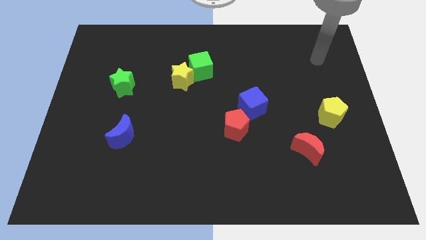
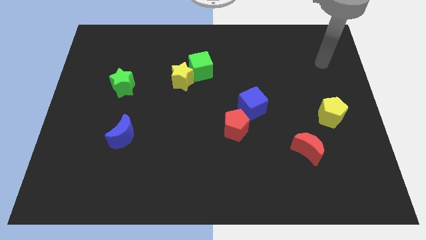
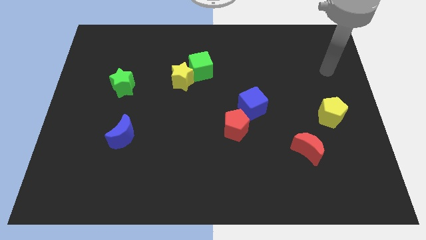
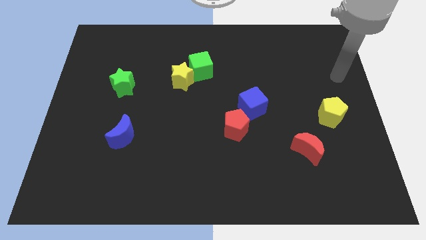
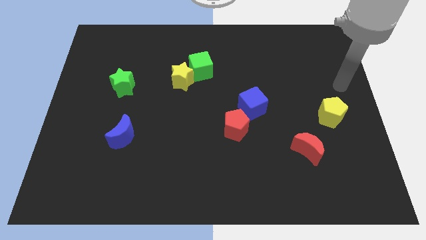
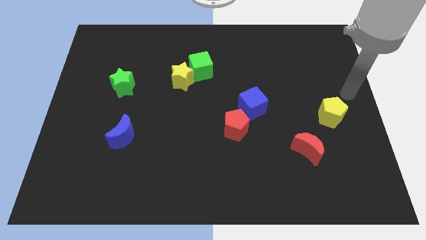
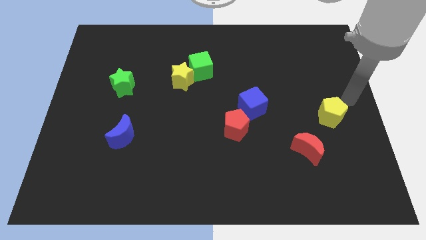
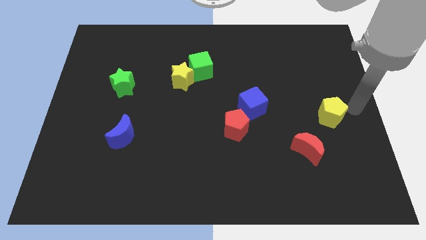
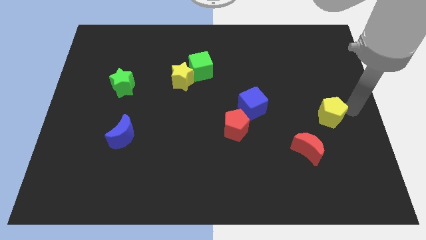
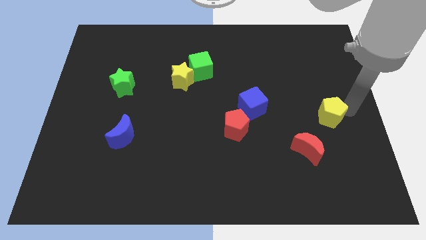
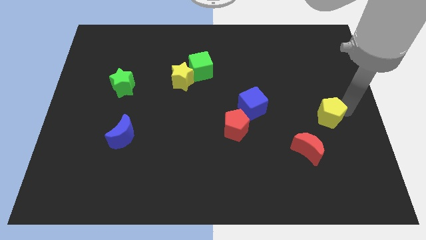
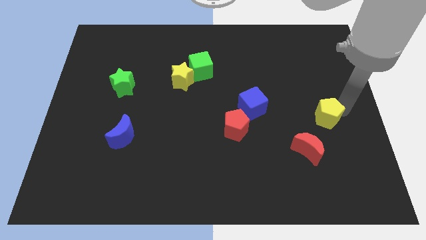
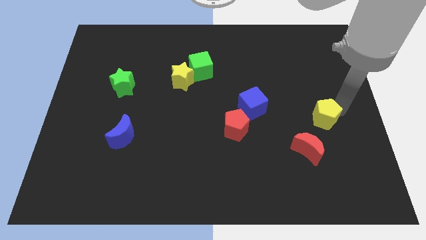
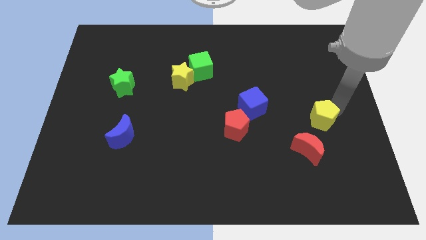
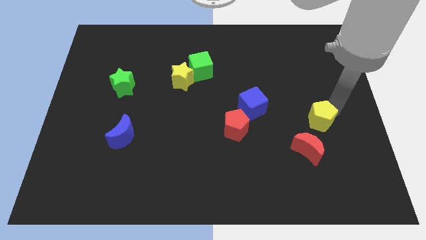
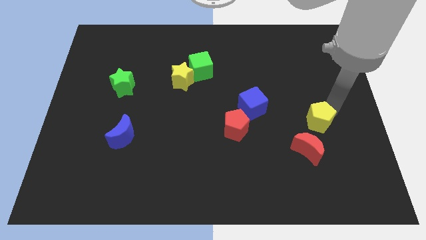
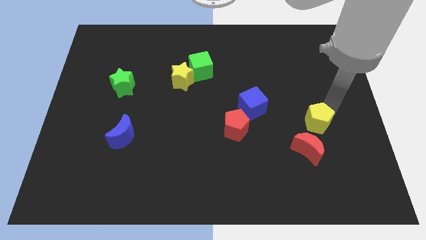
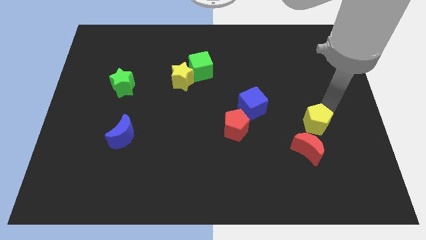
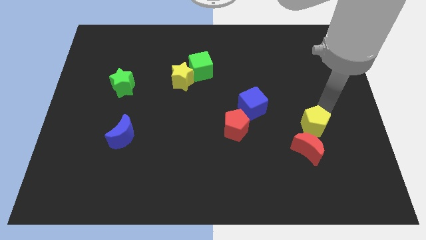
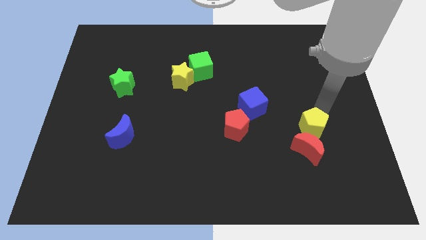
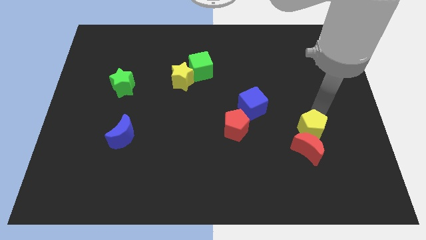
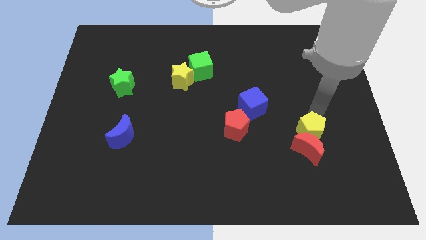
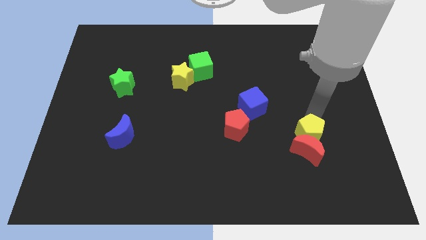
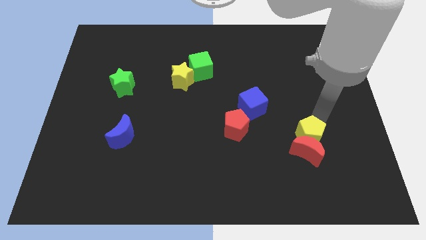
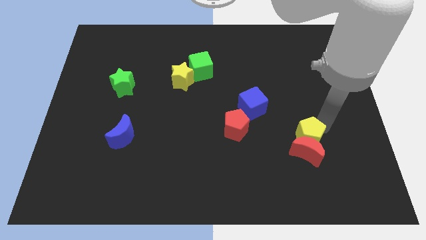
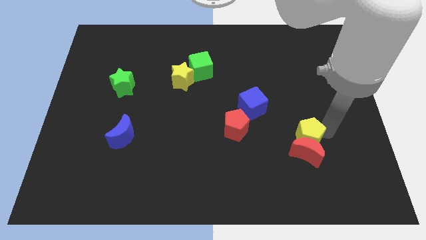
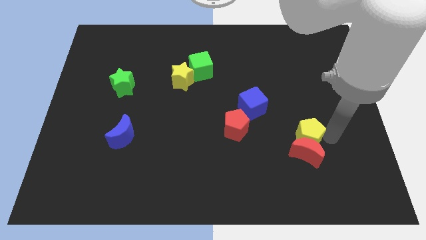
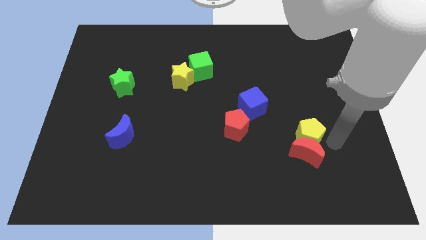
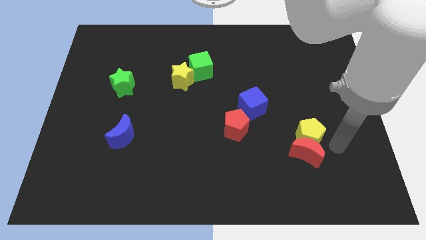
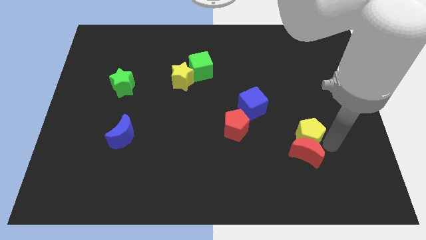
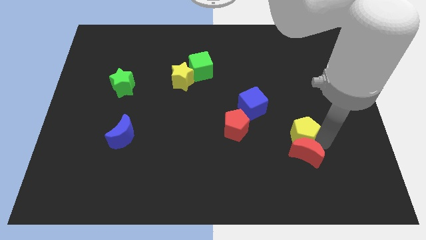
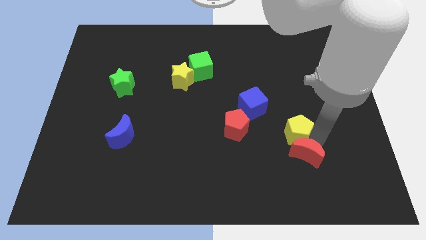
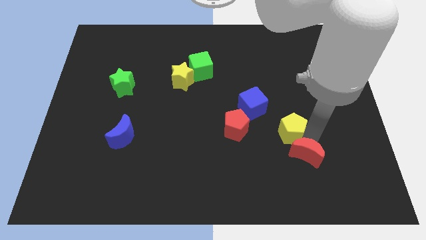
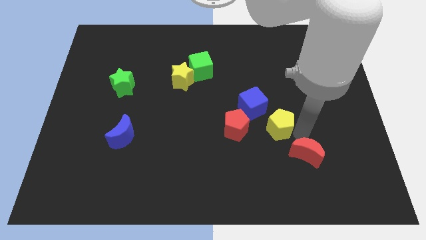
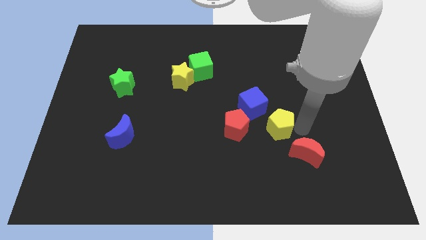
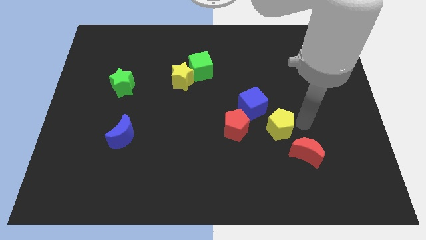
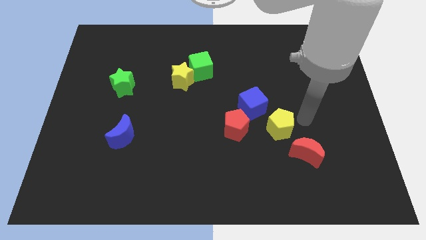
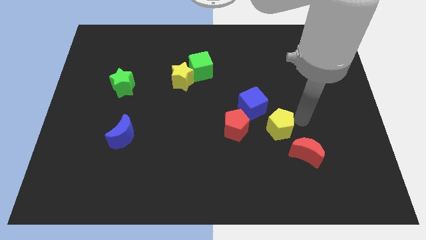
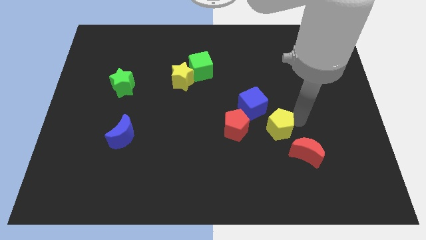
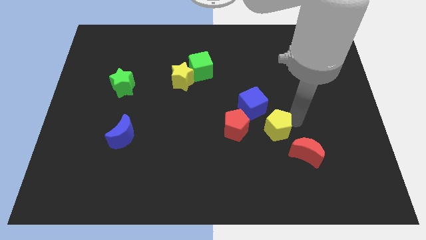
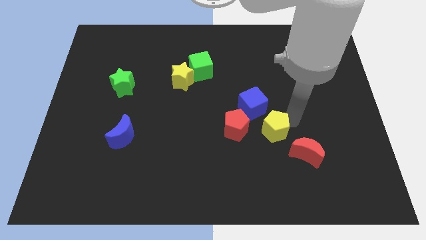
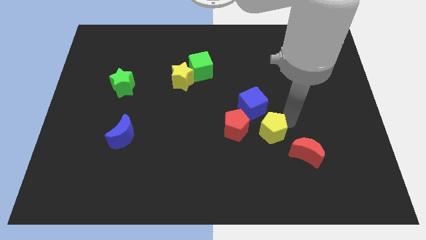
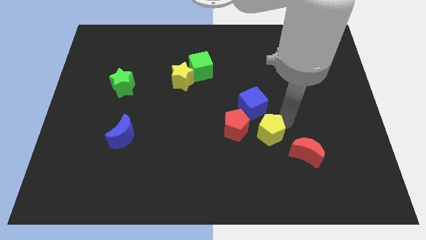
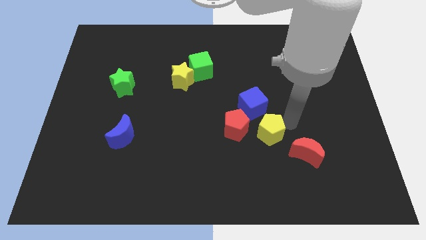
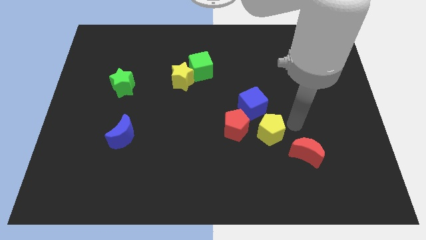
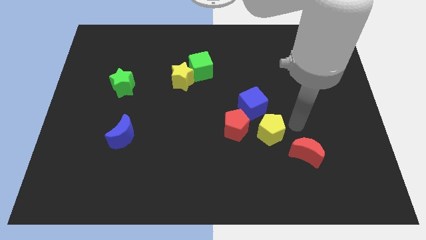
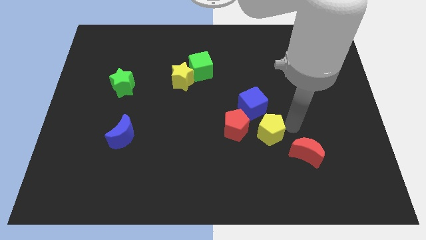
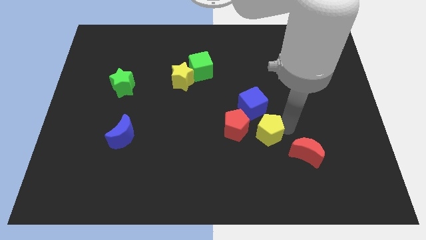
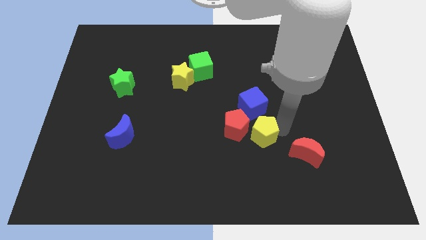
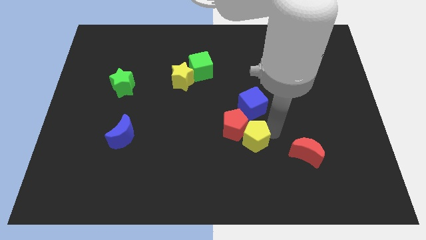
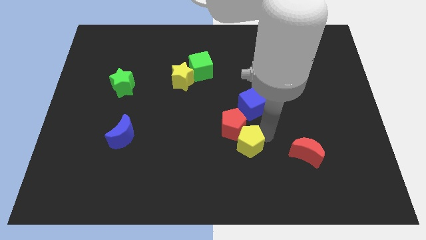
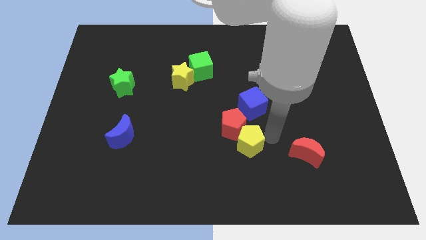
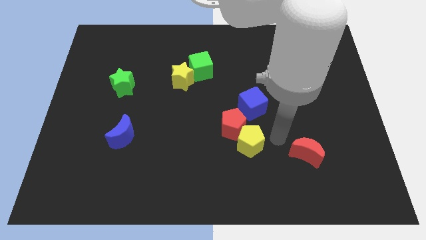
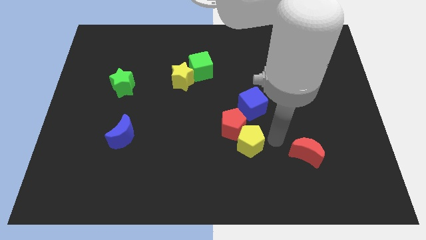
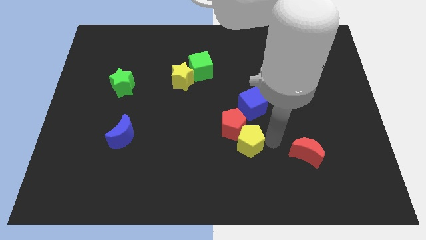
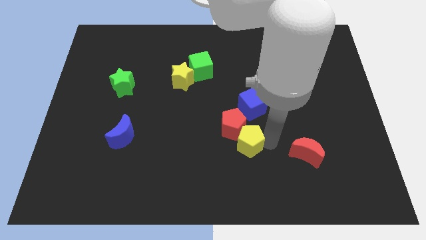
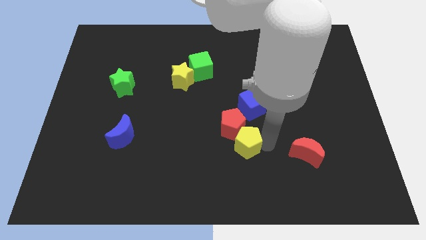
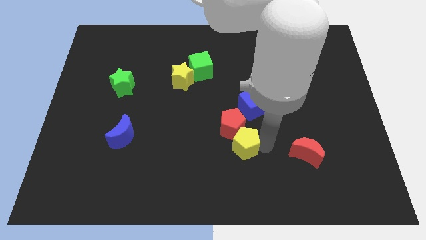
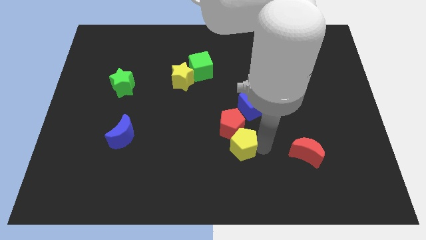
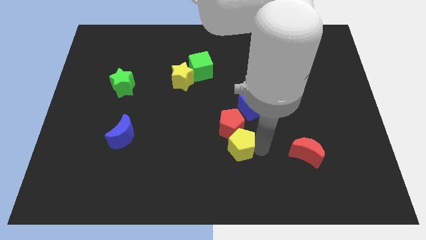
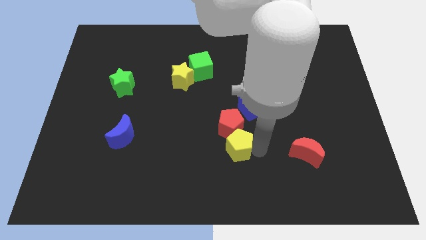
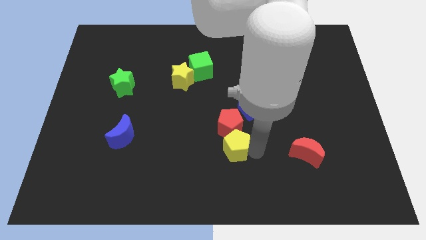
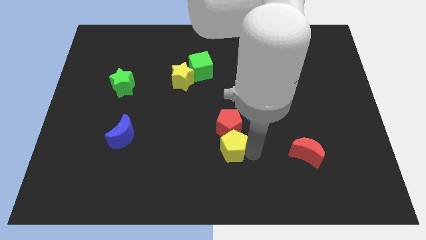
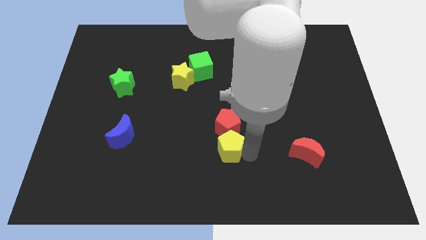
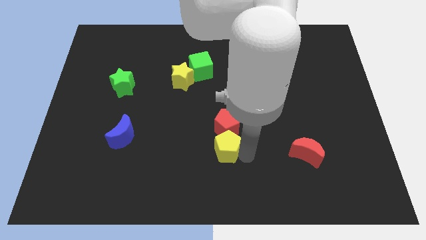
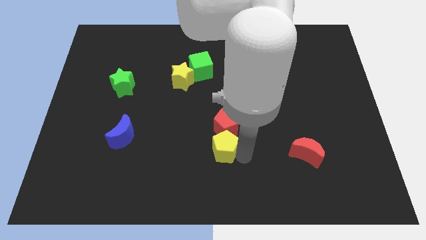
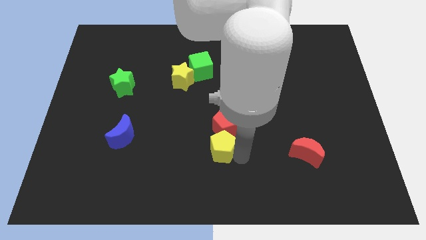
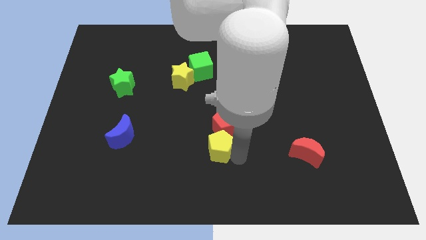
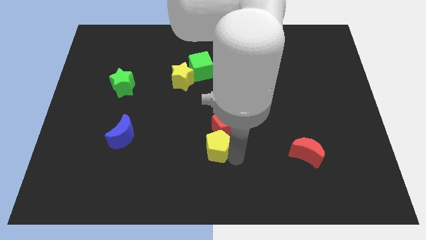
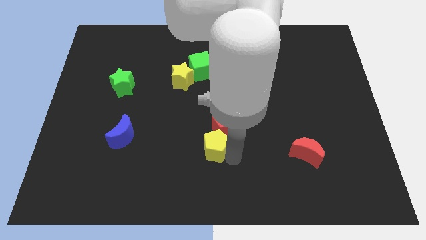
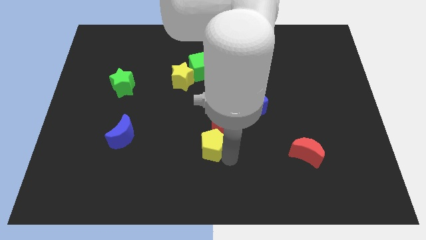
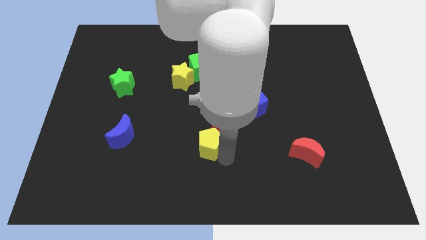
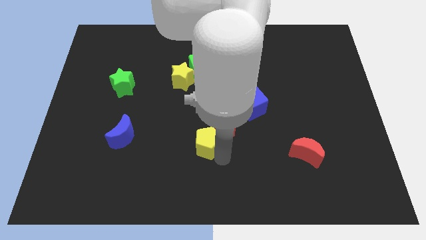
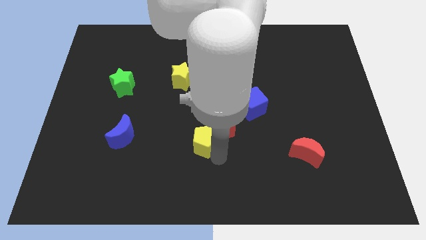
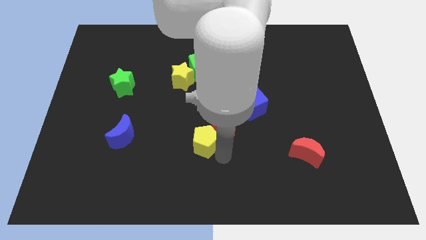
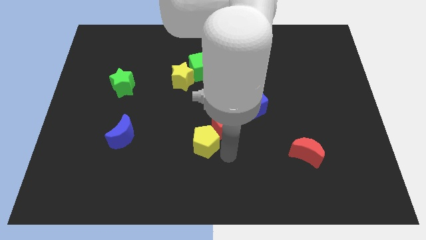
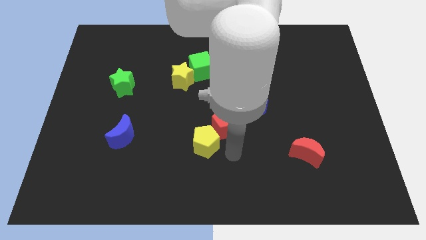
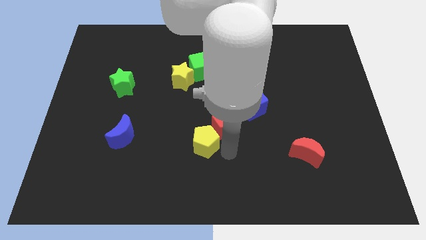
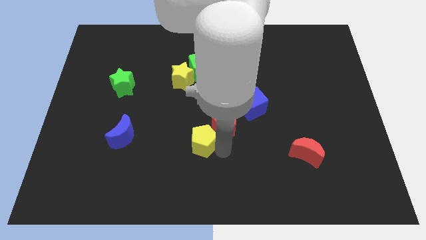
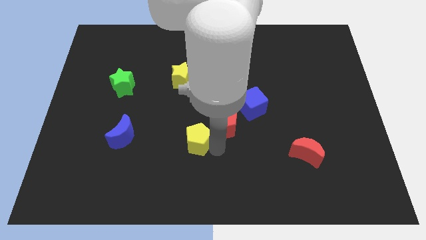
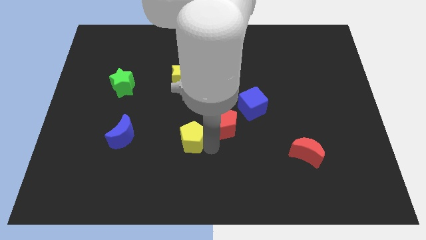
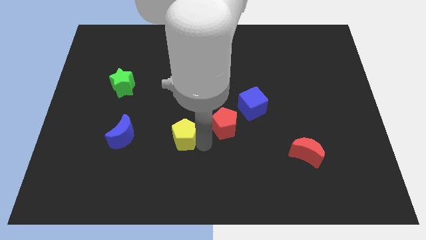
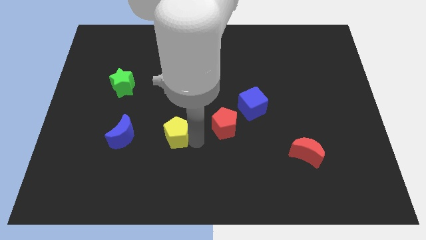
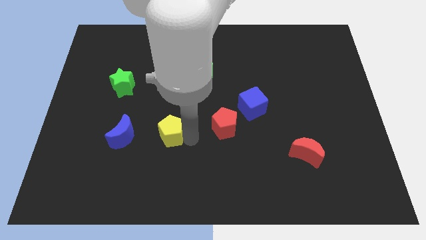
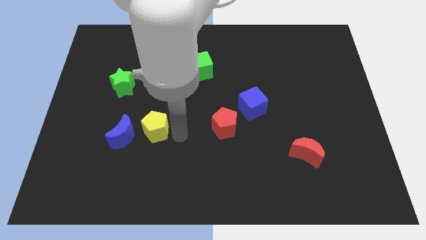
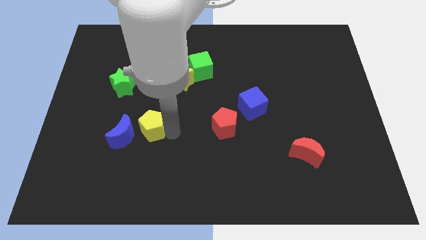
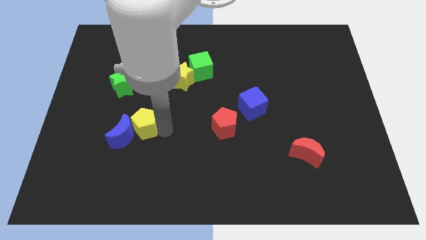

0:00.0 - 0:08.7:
put the yellow pentagon close to the blue moon
